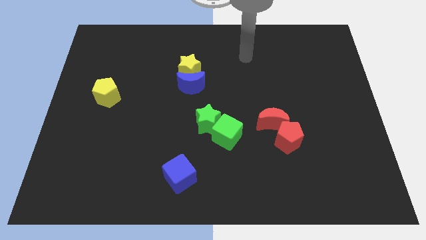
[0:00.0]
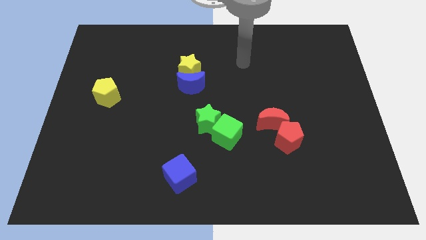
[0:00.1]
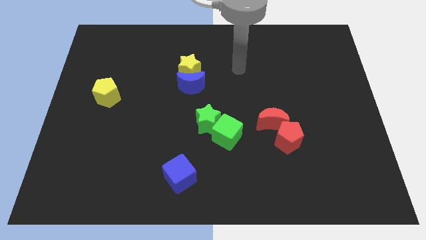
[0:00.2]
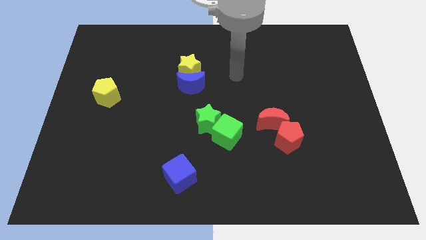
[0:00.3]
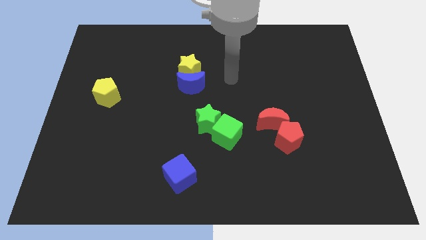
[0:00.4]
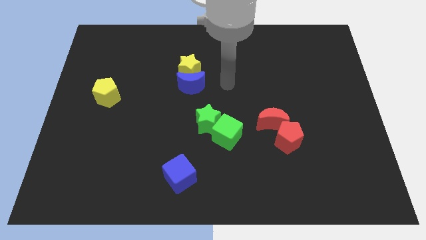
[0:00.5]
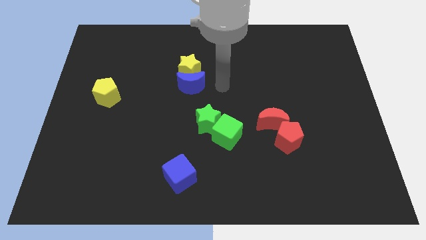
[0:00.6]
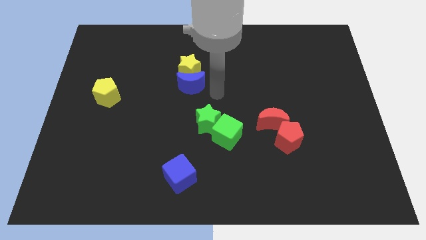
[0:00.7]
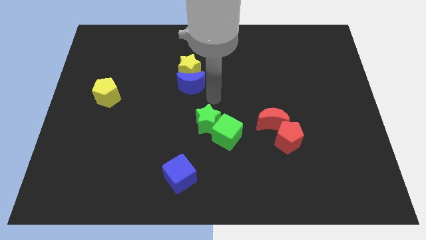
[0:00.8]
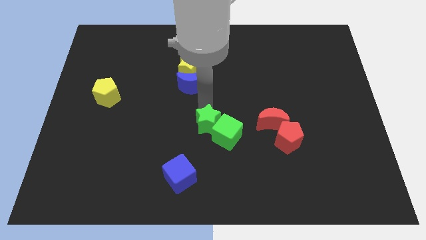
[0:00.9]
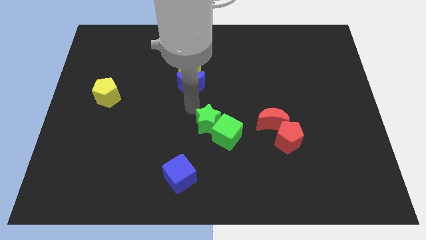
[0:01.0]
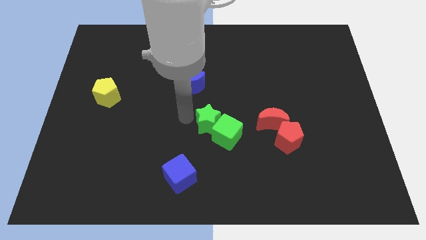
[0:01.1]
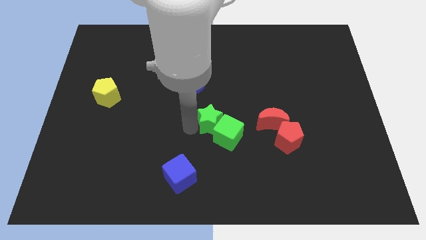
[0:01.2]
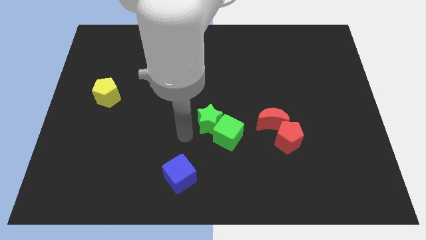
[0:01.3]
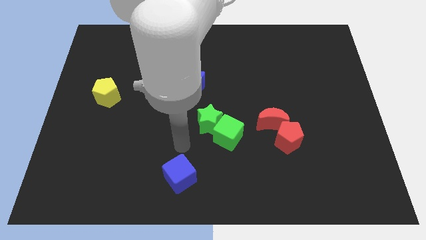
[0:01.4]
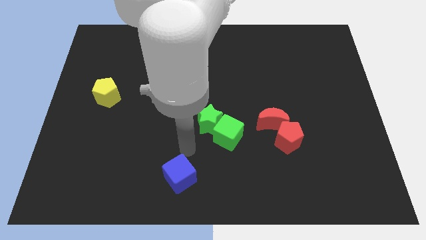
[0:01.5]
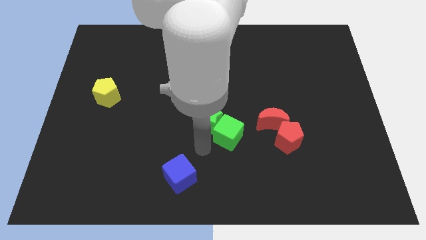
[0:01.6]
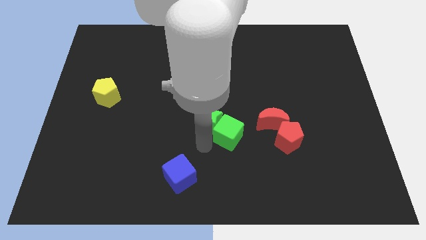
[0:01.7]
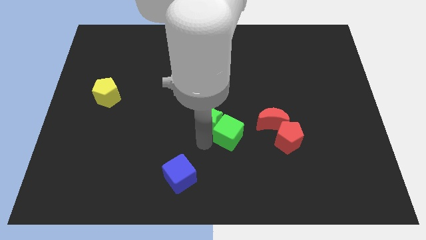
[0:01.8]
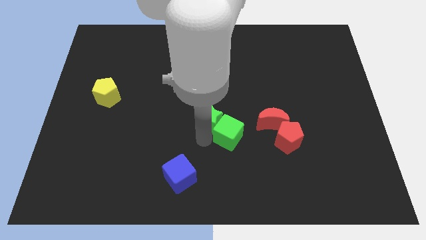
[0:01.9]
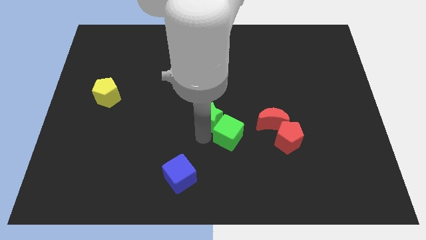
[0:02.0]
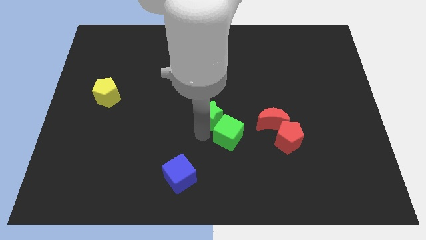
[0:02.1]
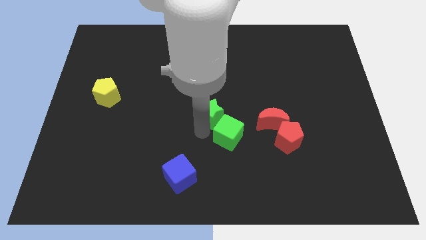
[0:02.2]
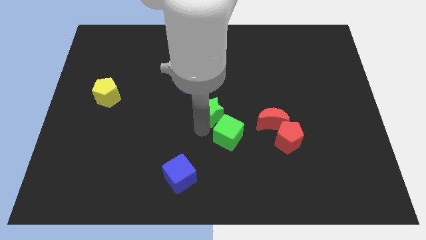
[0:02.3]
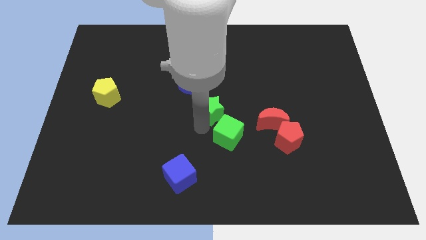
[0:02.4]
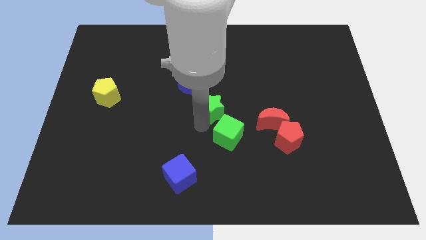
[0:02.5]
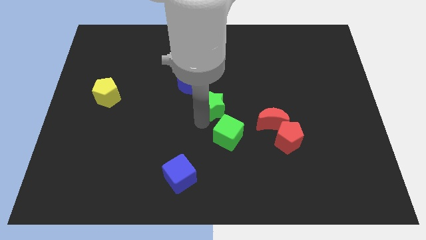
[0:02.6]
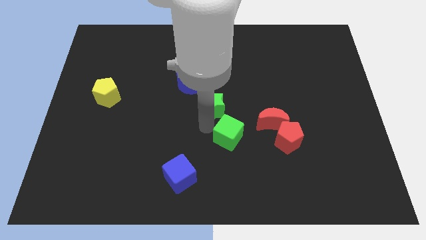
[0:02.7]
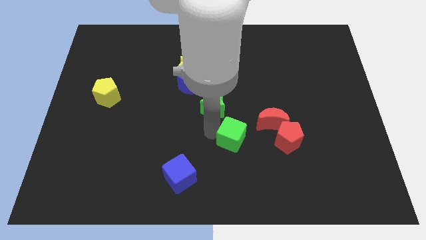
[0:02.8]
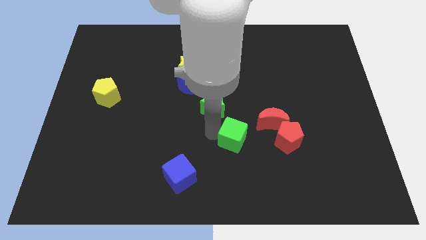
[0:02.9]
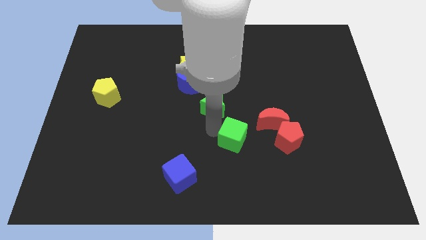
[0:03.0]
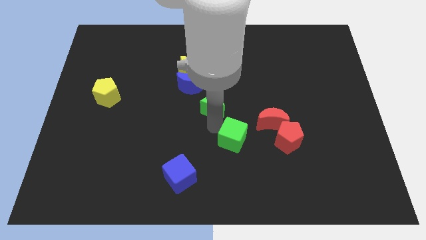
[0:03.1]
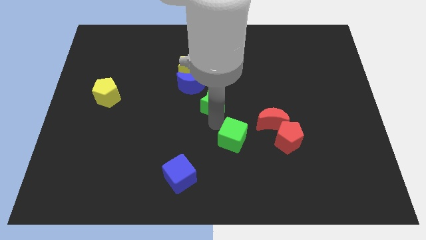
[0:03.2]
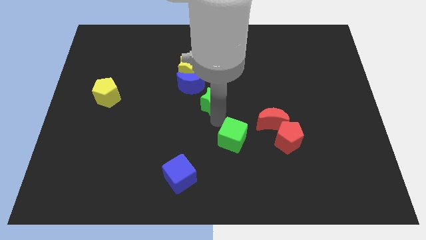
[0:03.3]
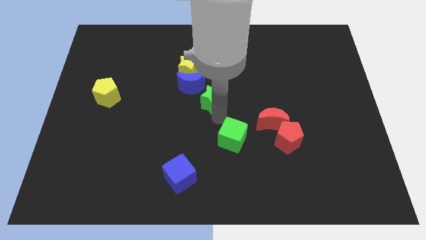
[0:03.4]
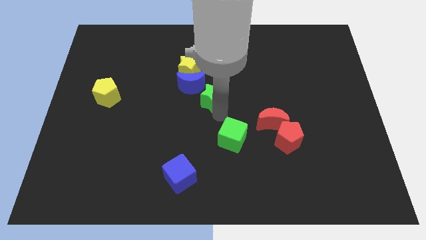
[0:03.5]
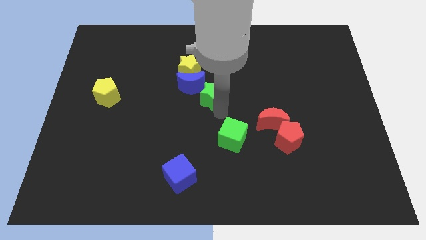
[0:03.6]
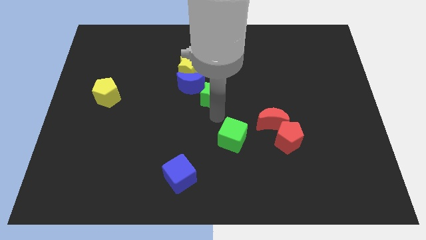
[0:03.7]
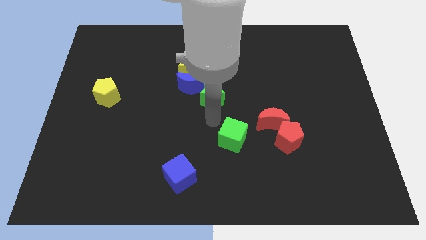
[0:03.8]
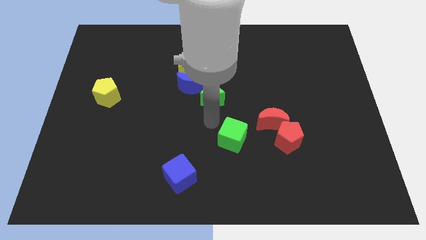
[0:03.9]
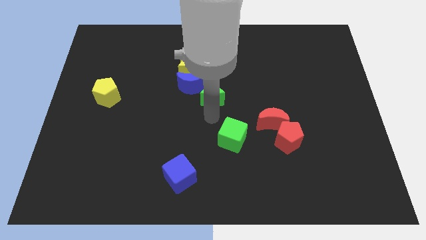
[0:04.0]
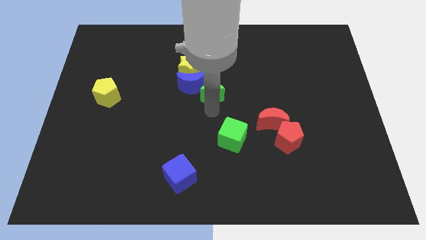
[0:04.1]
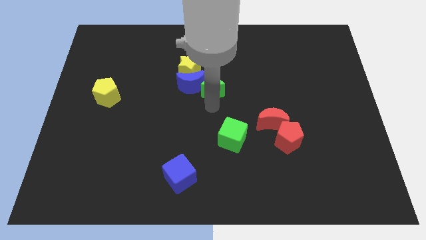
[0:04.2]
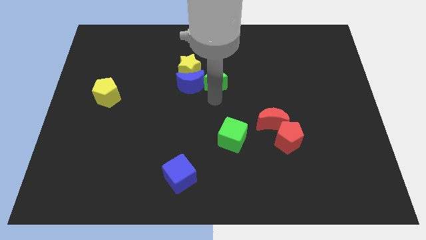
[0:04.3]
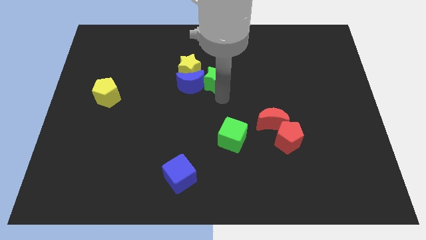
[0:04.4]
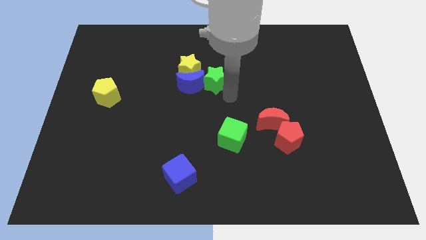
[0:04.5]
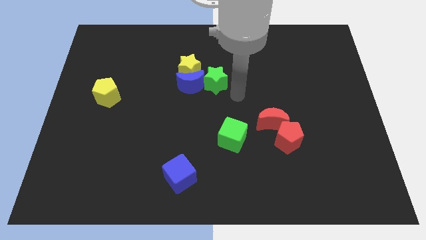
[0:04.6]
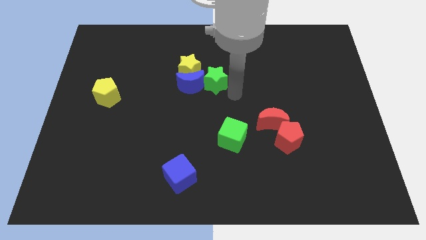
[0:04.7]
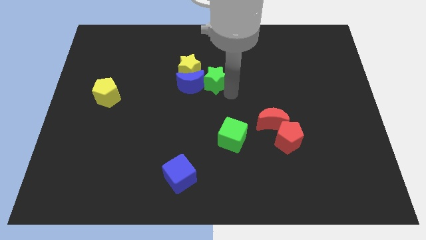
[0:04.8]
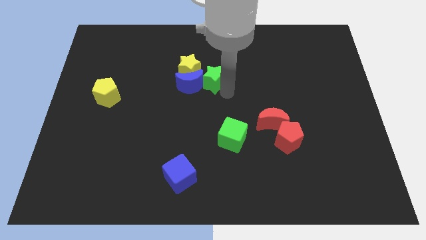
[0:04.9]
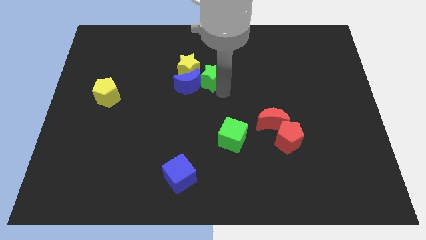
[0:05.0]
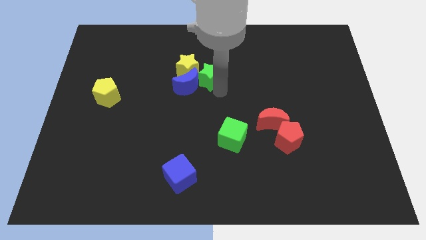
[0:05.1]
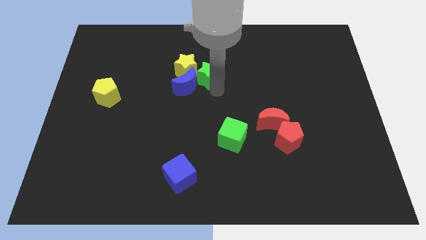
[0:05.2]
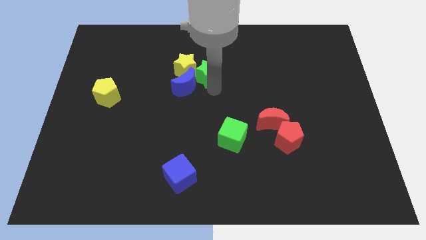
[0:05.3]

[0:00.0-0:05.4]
push the green star to the yellow star

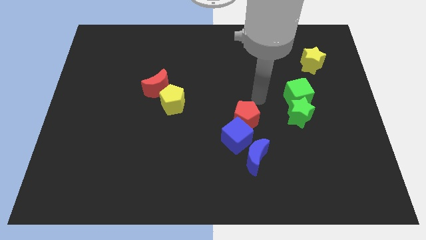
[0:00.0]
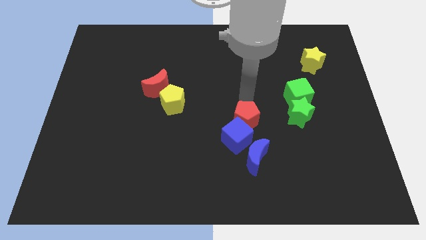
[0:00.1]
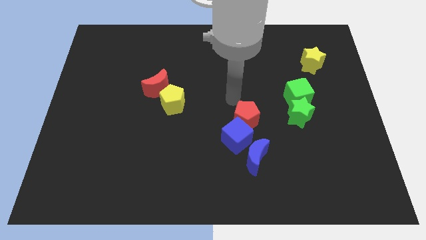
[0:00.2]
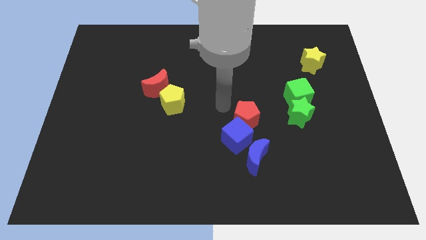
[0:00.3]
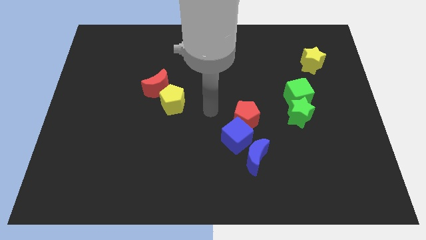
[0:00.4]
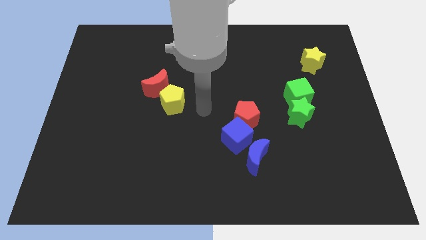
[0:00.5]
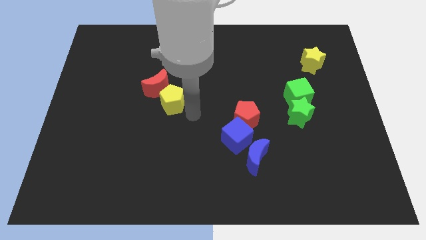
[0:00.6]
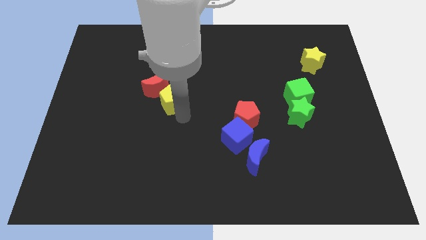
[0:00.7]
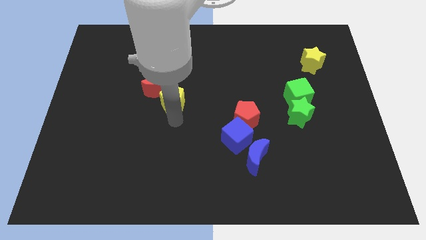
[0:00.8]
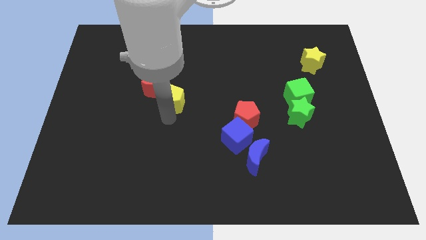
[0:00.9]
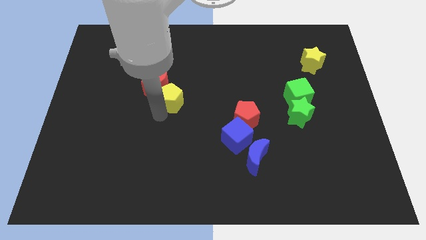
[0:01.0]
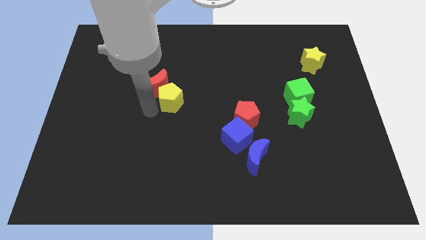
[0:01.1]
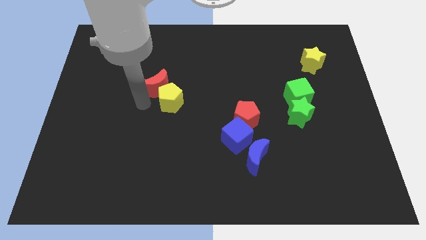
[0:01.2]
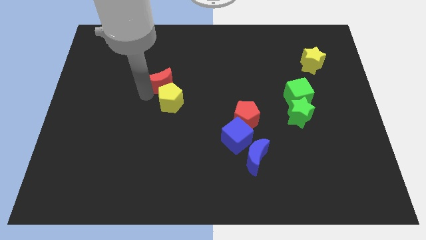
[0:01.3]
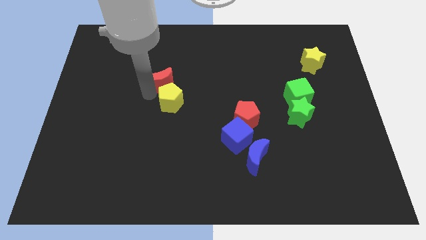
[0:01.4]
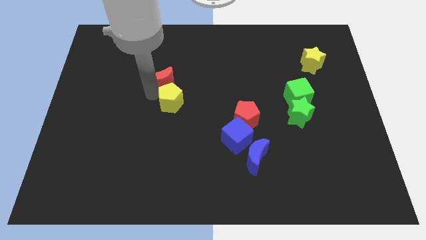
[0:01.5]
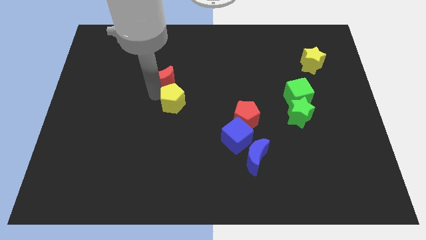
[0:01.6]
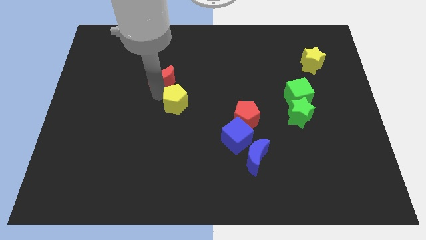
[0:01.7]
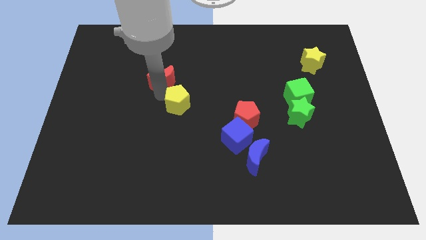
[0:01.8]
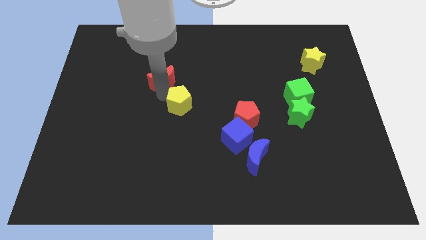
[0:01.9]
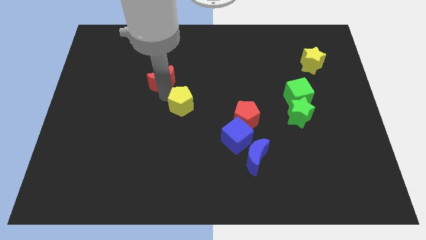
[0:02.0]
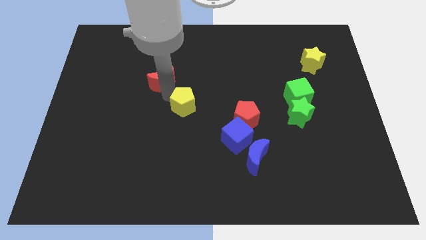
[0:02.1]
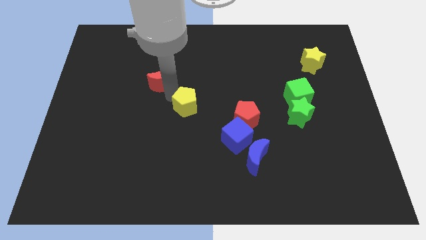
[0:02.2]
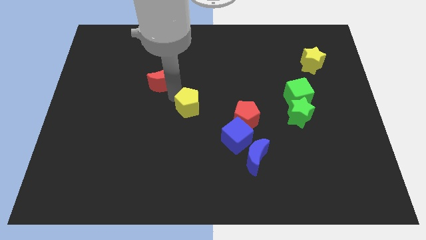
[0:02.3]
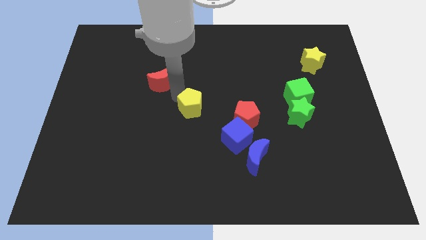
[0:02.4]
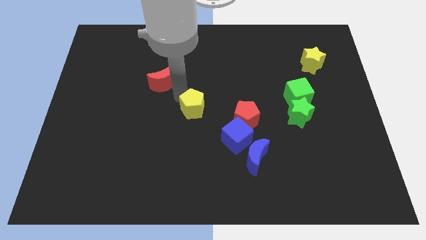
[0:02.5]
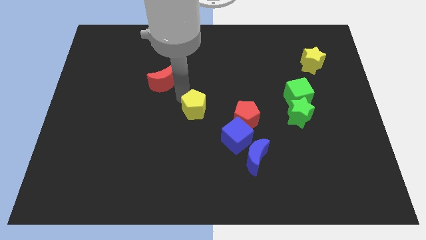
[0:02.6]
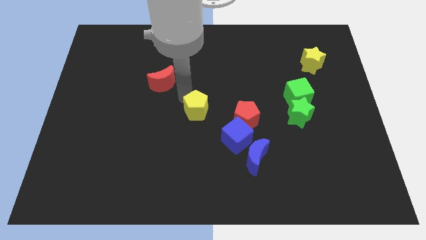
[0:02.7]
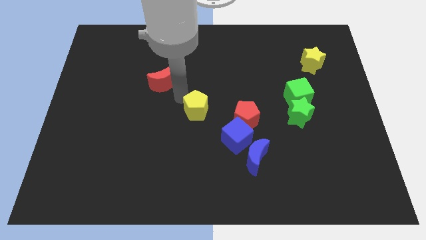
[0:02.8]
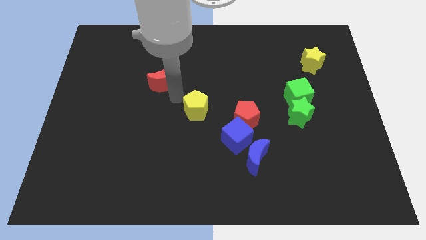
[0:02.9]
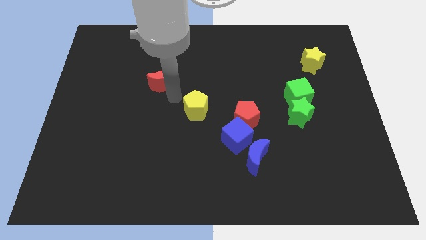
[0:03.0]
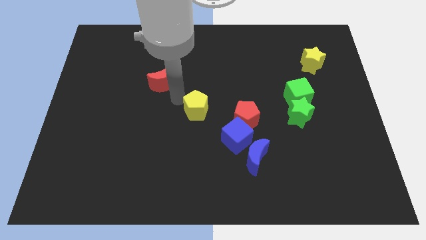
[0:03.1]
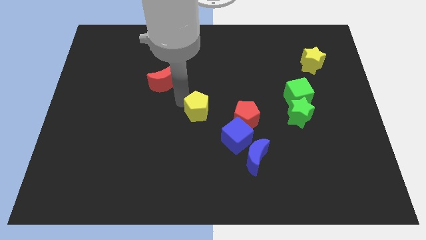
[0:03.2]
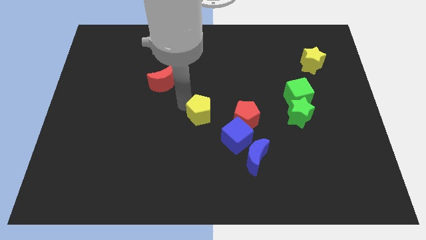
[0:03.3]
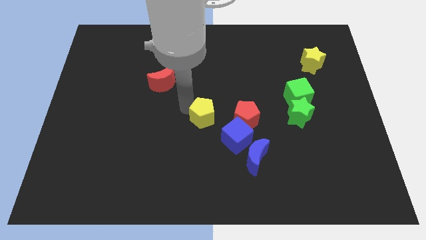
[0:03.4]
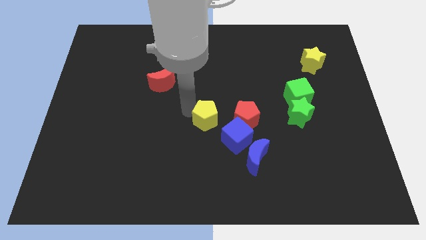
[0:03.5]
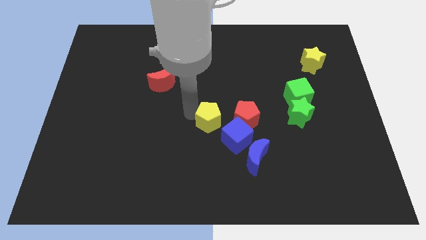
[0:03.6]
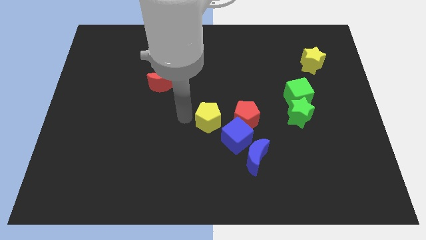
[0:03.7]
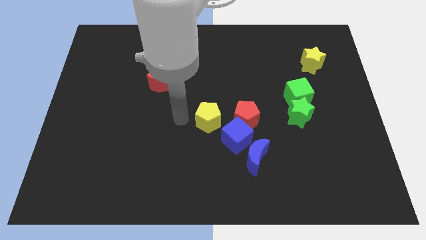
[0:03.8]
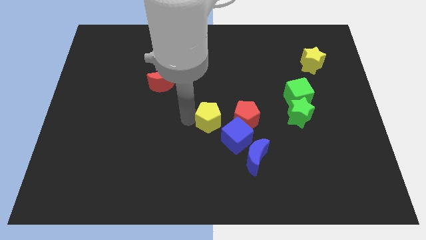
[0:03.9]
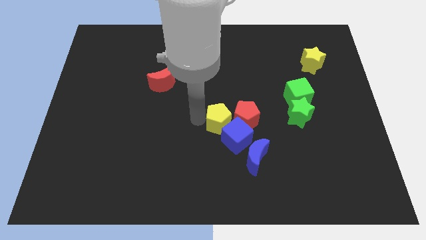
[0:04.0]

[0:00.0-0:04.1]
push the yellow pentagon close to the red pentagon
